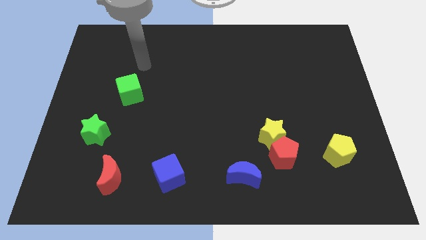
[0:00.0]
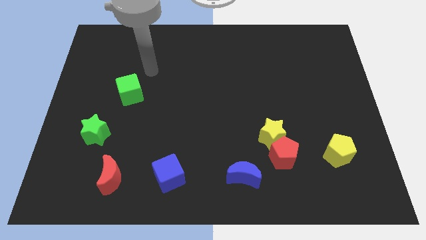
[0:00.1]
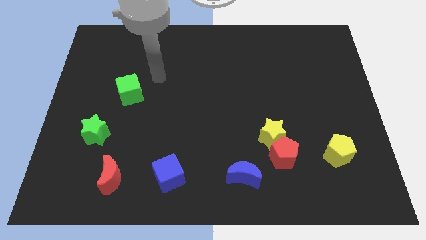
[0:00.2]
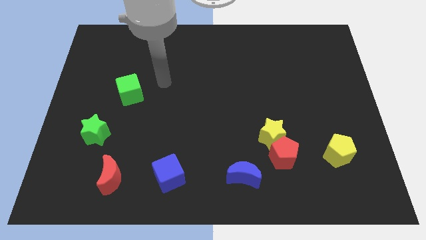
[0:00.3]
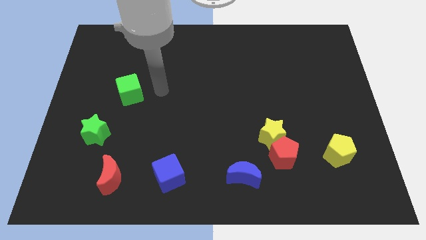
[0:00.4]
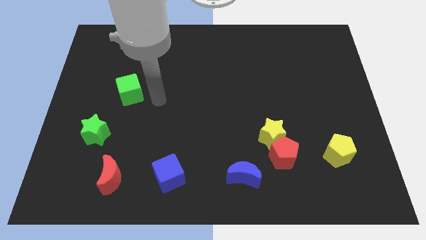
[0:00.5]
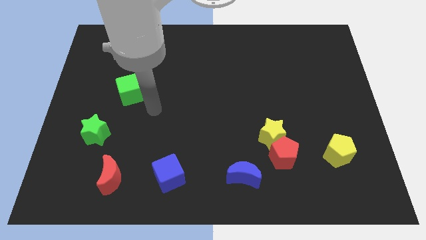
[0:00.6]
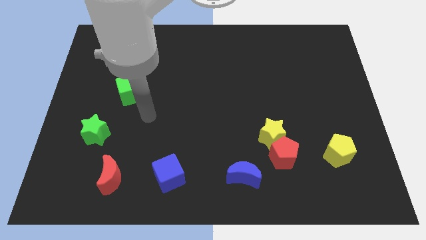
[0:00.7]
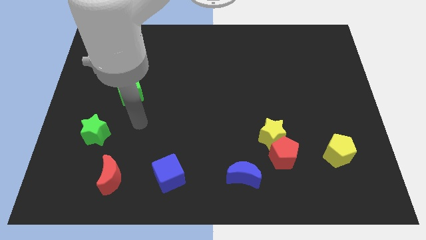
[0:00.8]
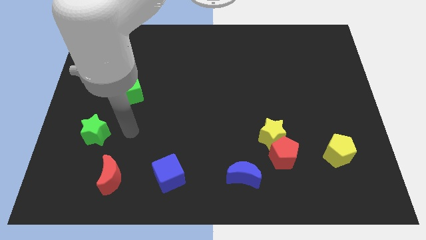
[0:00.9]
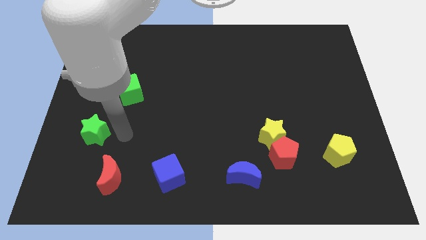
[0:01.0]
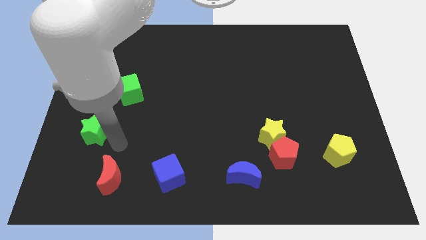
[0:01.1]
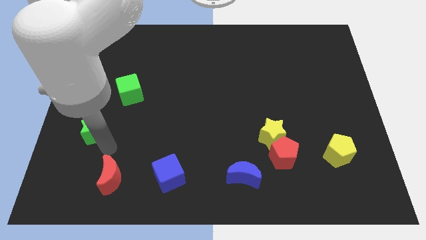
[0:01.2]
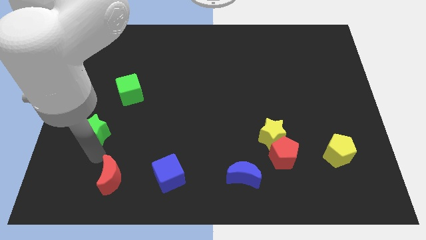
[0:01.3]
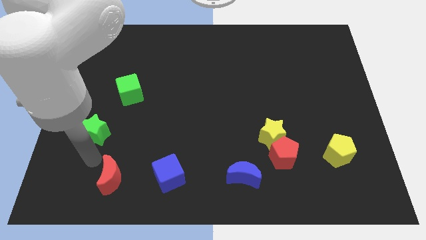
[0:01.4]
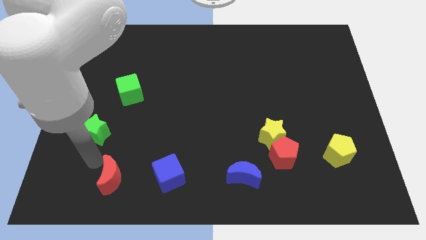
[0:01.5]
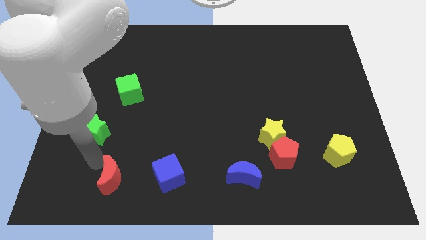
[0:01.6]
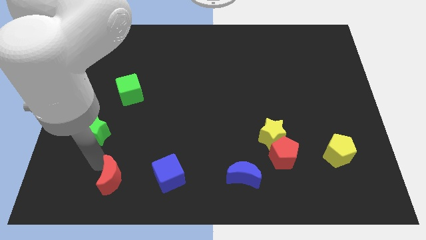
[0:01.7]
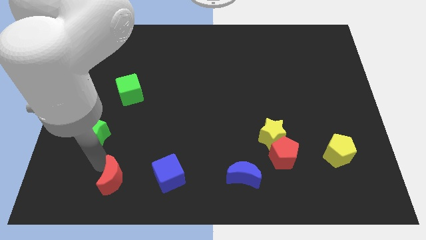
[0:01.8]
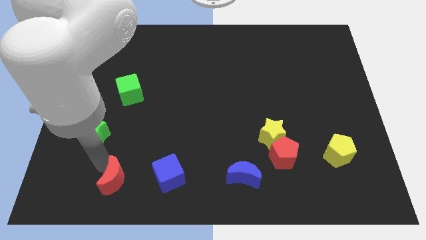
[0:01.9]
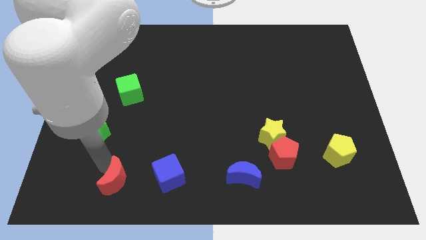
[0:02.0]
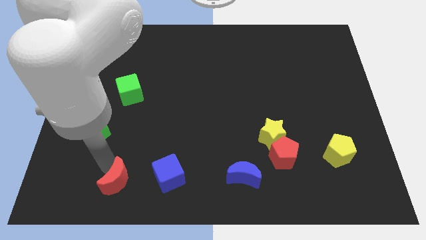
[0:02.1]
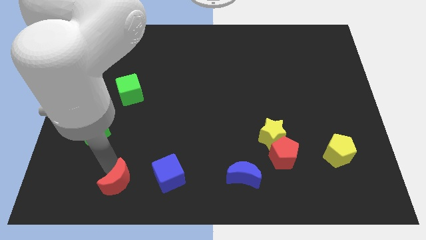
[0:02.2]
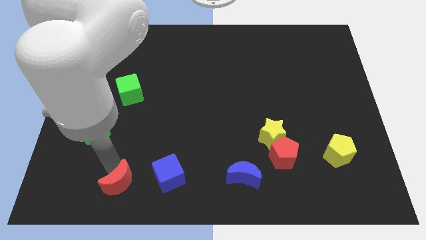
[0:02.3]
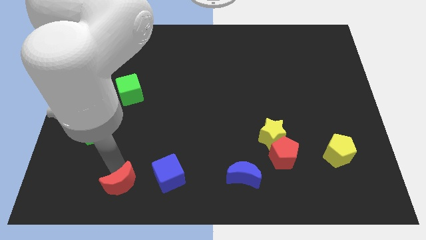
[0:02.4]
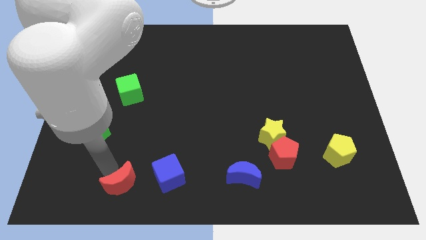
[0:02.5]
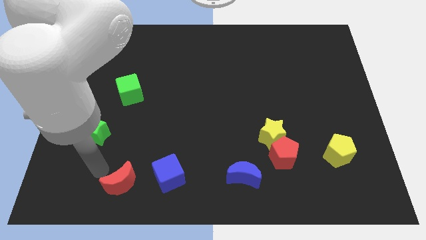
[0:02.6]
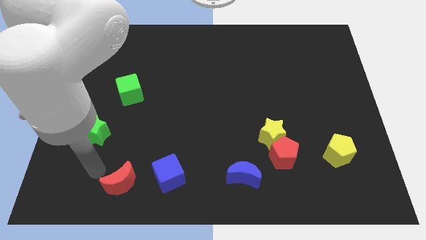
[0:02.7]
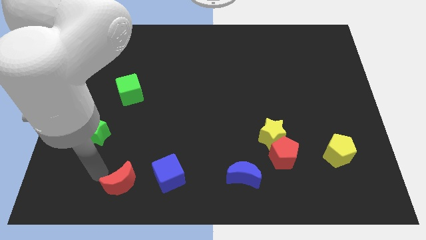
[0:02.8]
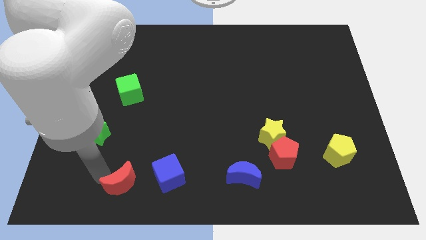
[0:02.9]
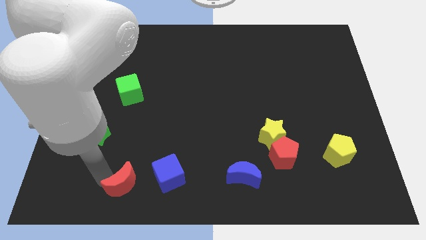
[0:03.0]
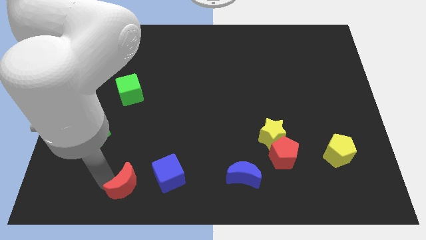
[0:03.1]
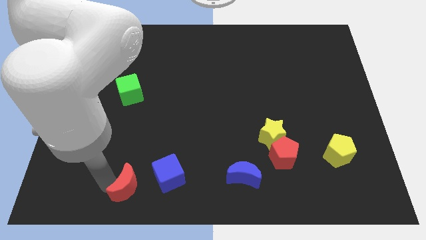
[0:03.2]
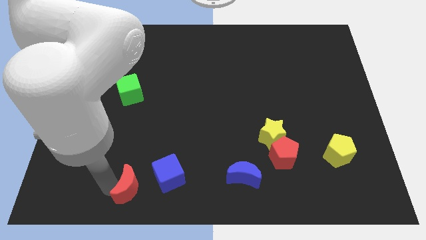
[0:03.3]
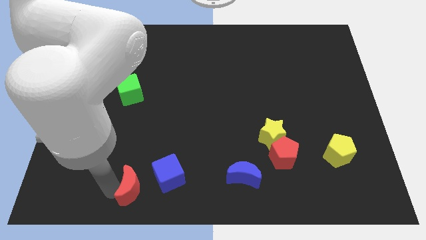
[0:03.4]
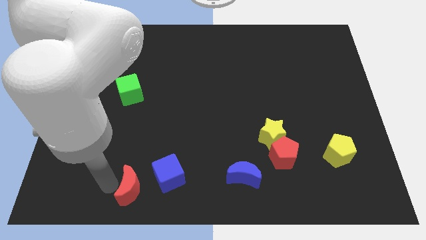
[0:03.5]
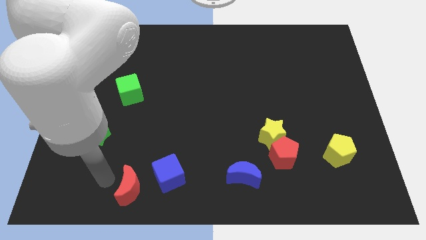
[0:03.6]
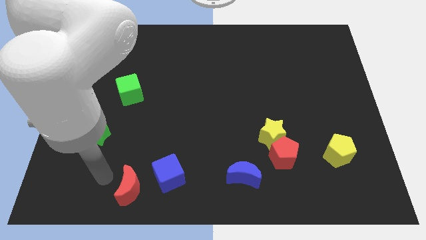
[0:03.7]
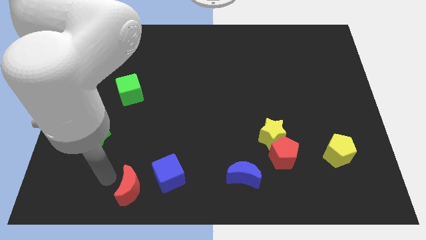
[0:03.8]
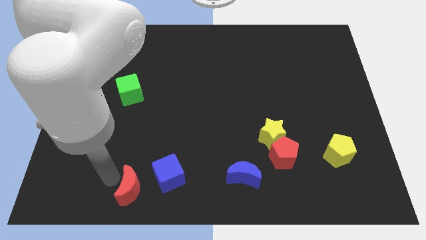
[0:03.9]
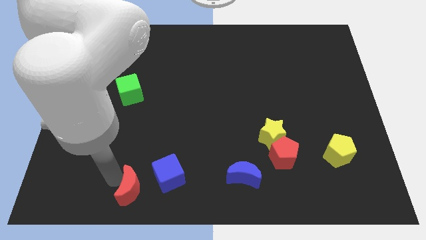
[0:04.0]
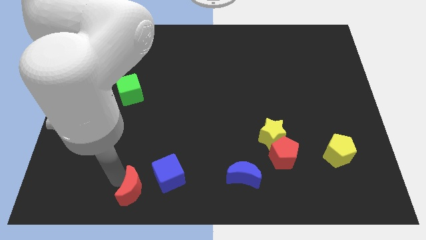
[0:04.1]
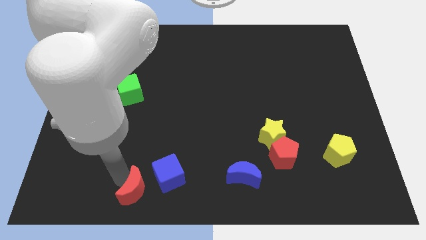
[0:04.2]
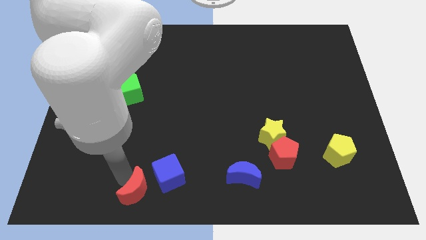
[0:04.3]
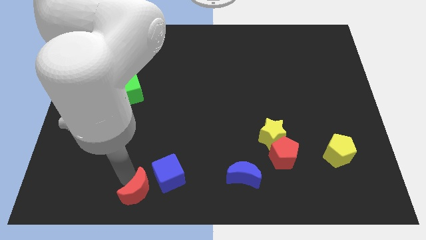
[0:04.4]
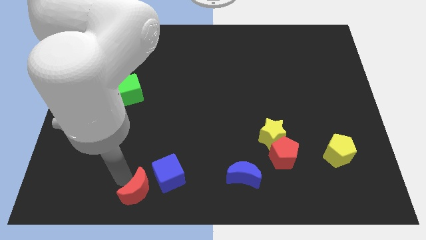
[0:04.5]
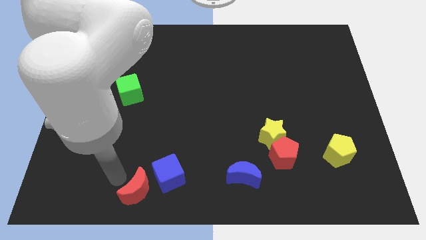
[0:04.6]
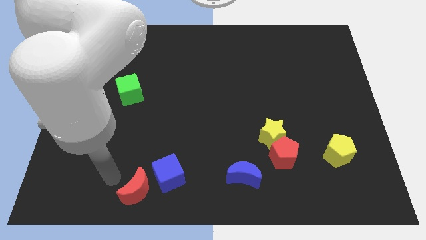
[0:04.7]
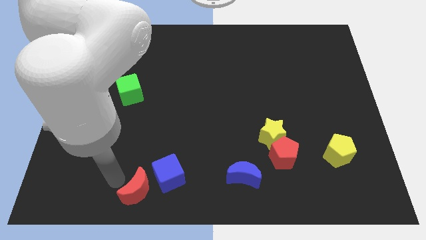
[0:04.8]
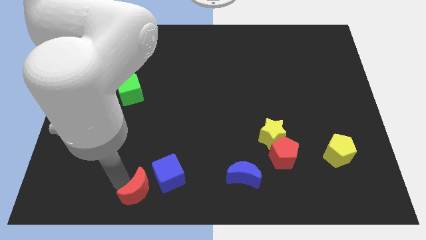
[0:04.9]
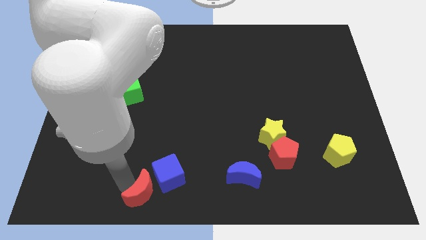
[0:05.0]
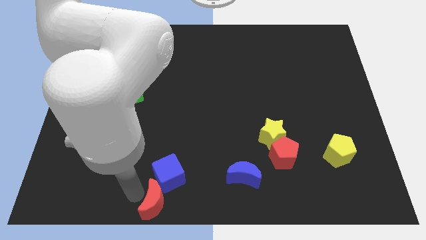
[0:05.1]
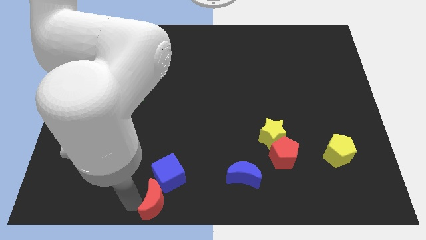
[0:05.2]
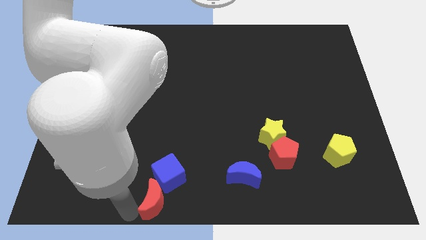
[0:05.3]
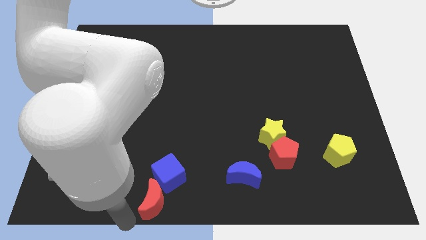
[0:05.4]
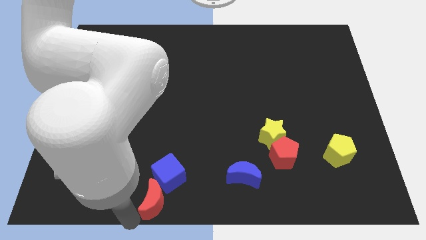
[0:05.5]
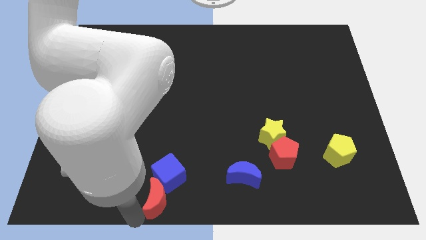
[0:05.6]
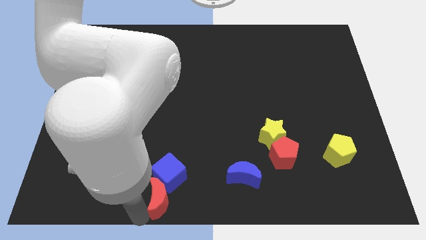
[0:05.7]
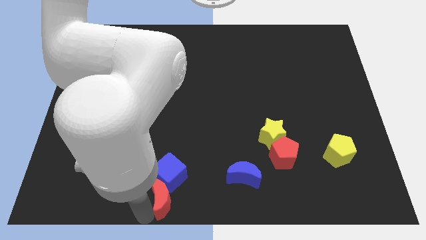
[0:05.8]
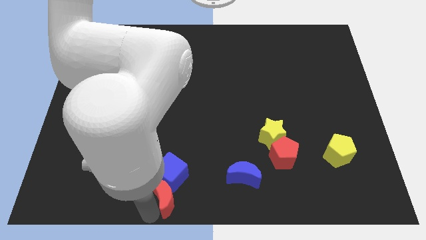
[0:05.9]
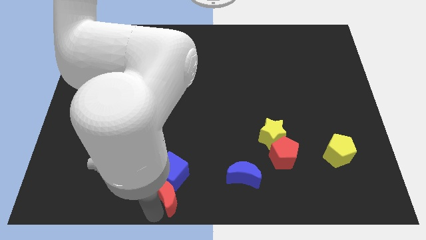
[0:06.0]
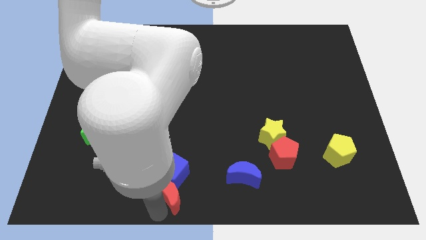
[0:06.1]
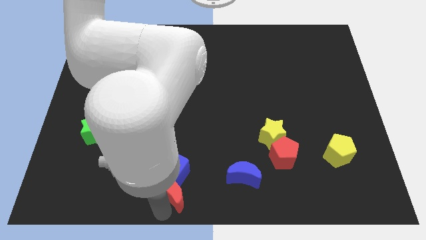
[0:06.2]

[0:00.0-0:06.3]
move the red moon left of the blue moon
